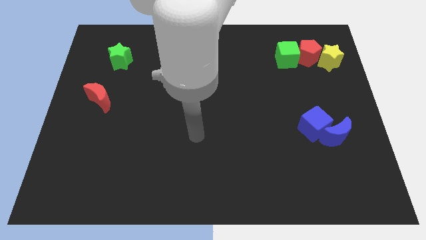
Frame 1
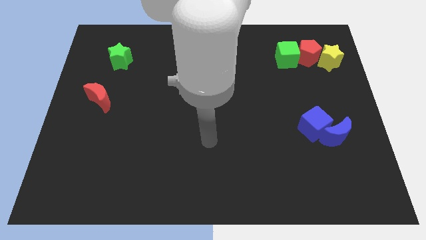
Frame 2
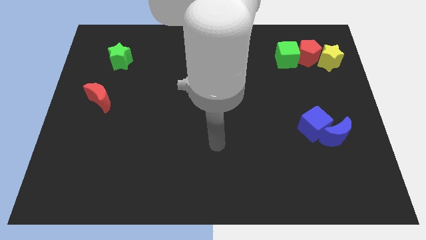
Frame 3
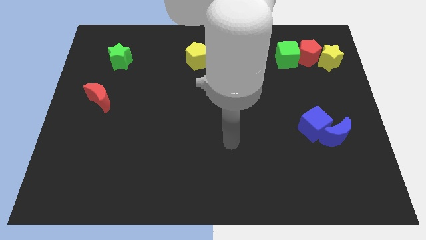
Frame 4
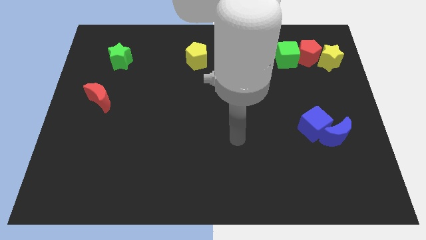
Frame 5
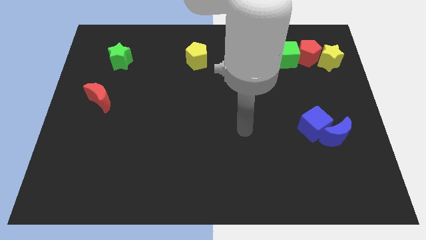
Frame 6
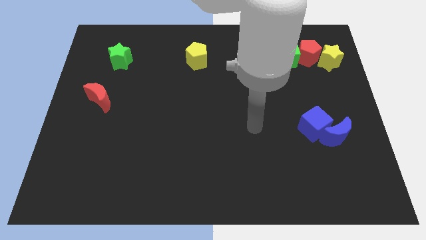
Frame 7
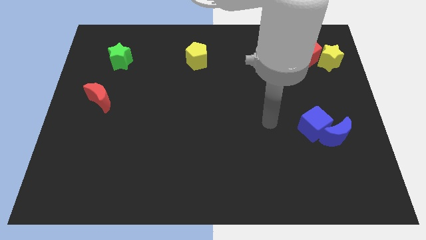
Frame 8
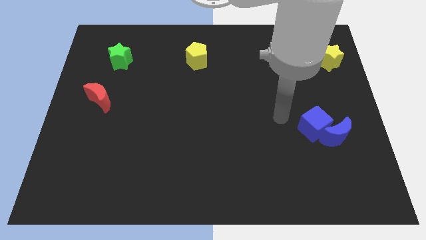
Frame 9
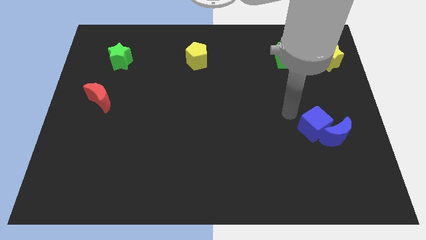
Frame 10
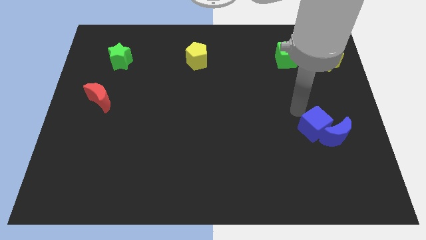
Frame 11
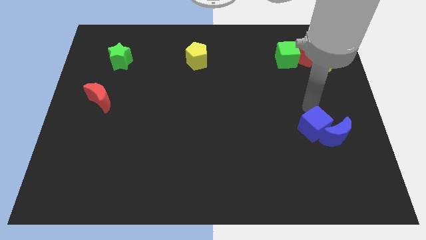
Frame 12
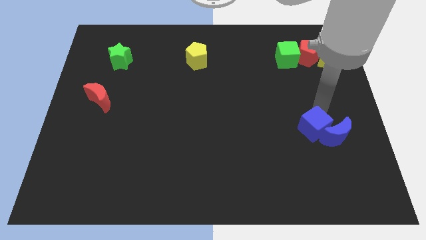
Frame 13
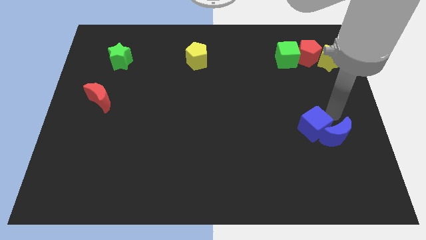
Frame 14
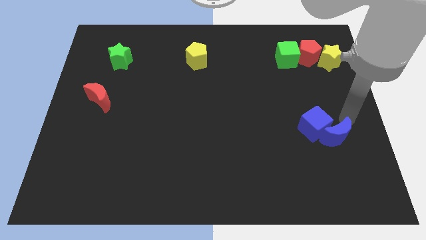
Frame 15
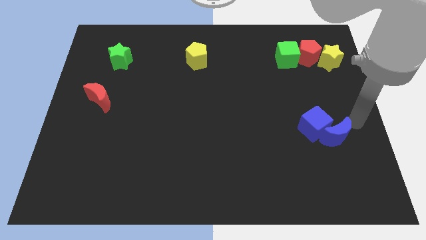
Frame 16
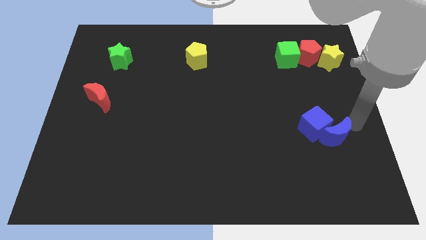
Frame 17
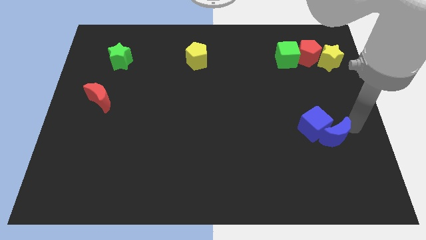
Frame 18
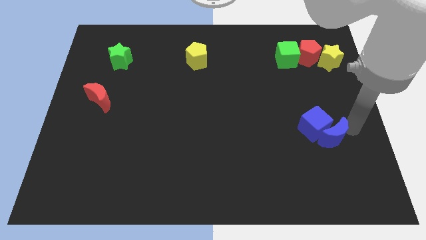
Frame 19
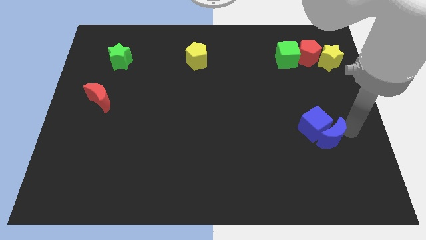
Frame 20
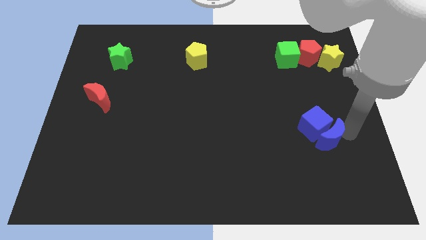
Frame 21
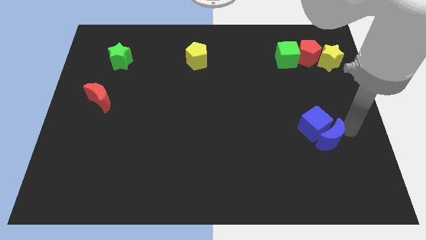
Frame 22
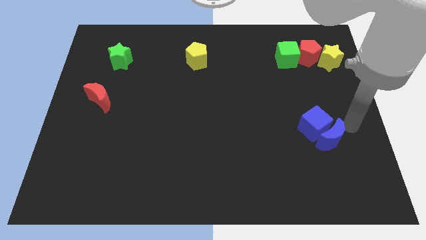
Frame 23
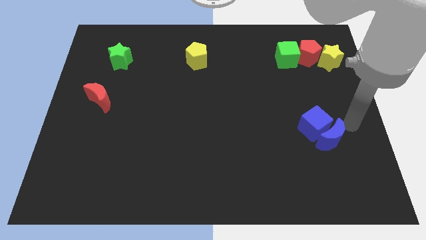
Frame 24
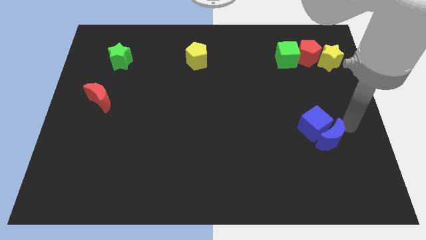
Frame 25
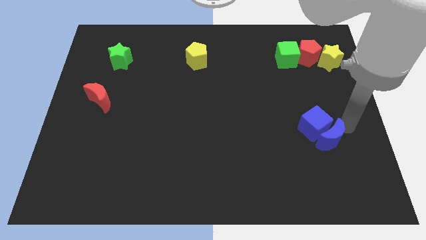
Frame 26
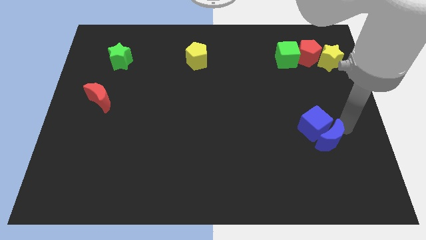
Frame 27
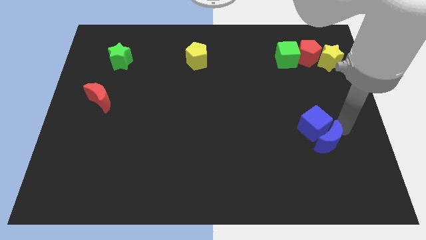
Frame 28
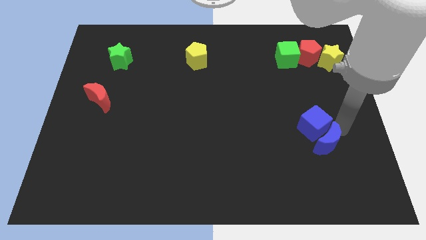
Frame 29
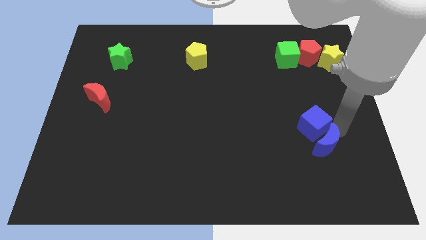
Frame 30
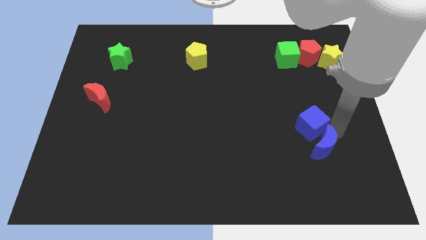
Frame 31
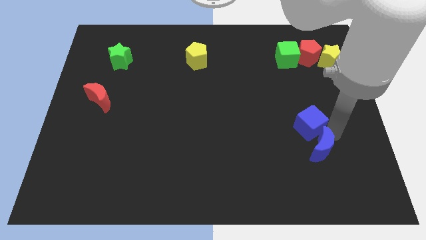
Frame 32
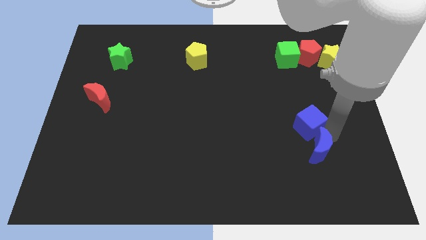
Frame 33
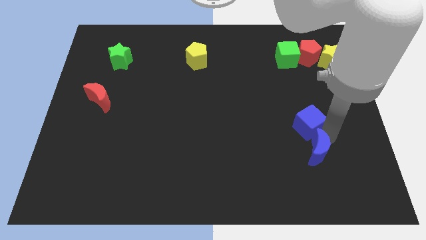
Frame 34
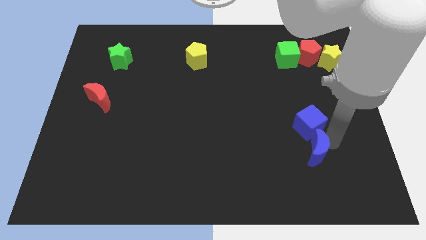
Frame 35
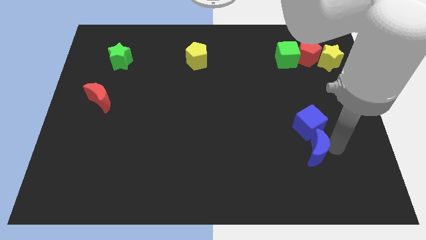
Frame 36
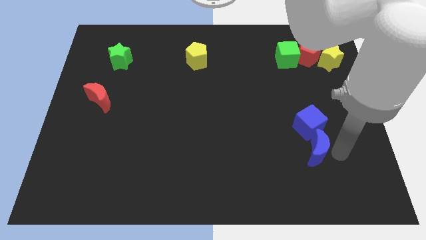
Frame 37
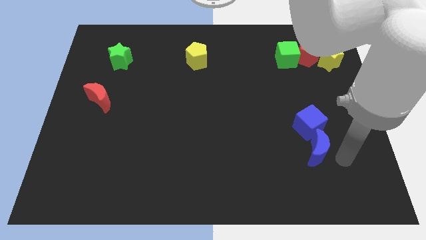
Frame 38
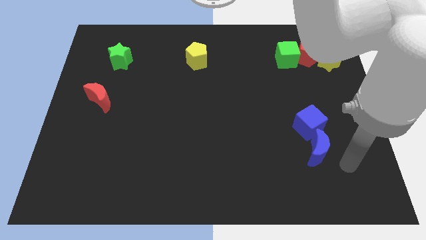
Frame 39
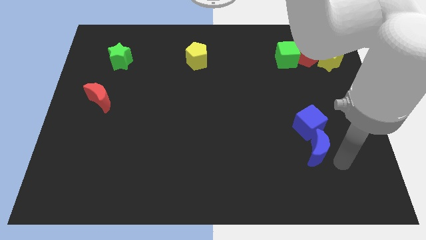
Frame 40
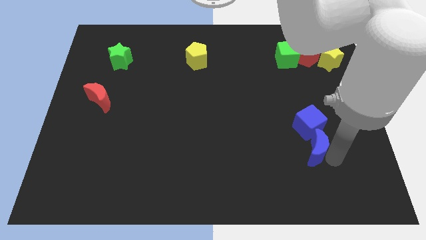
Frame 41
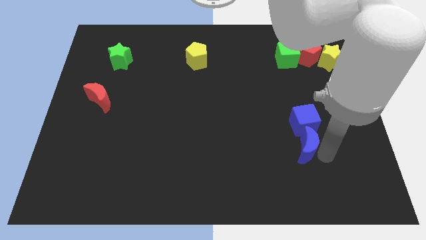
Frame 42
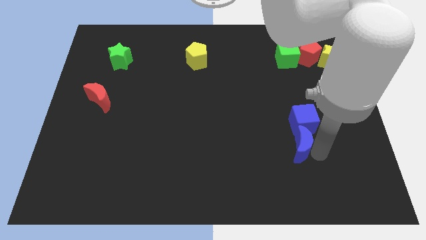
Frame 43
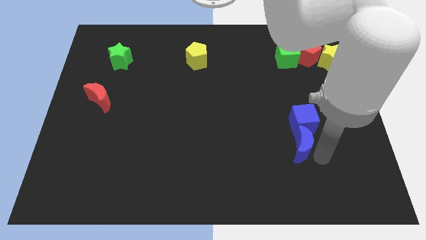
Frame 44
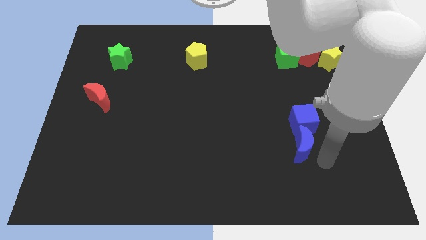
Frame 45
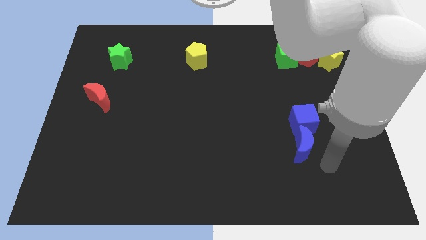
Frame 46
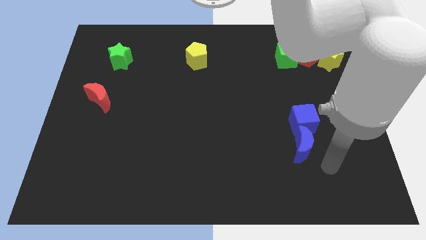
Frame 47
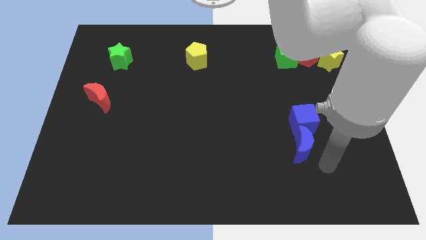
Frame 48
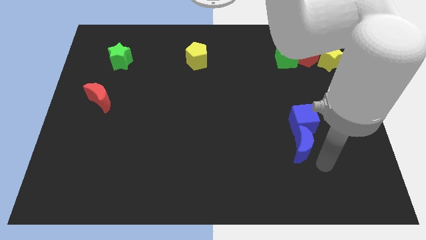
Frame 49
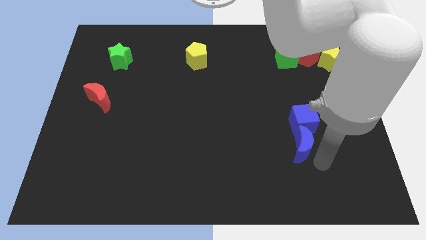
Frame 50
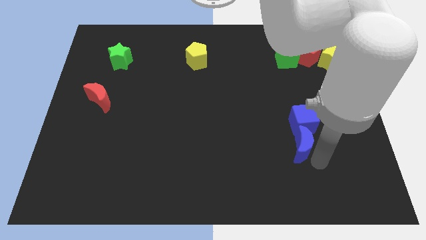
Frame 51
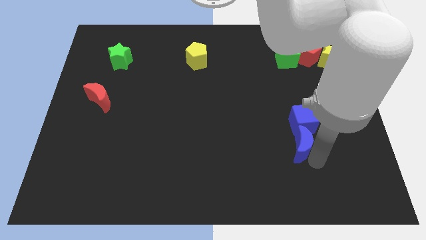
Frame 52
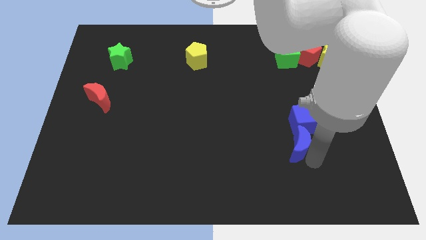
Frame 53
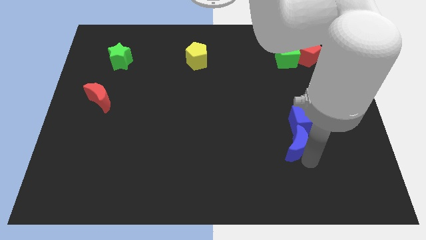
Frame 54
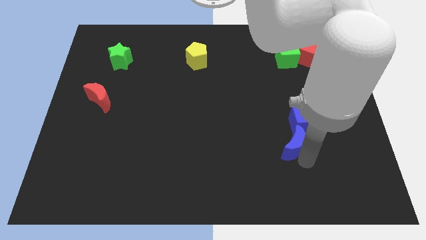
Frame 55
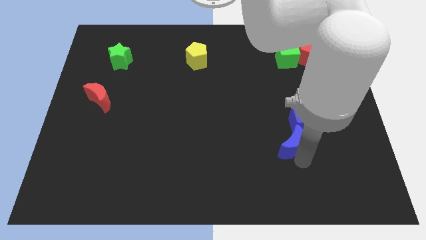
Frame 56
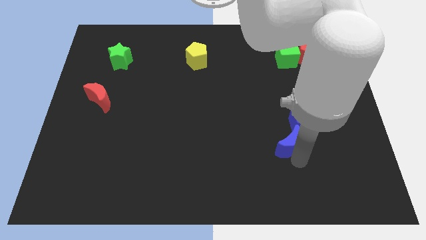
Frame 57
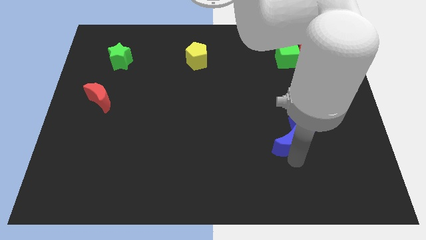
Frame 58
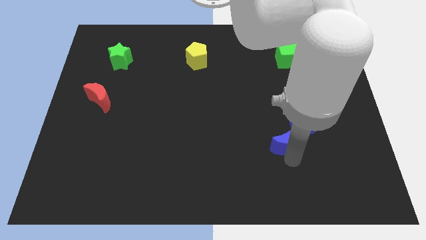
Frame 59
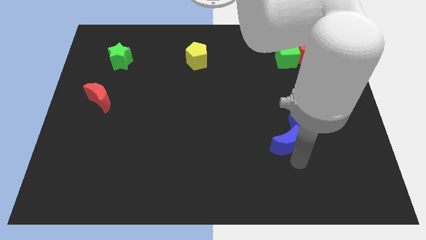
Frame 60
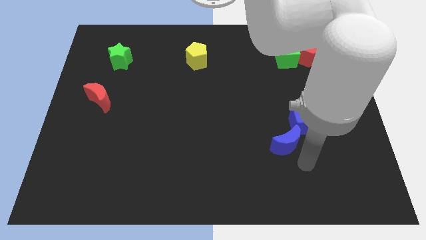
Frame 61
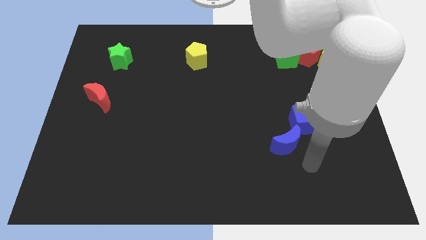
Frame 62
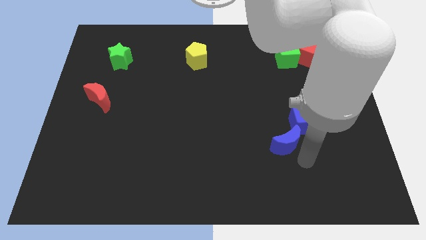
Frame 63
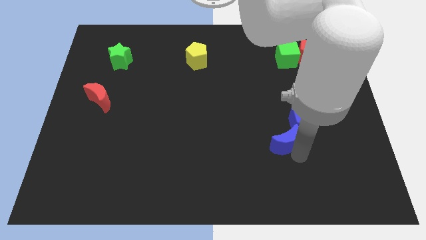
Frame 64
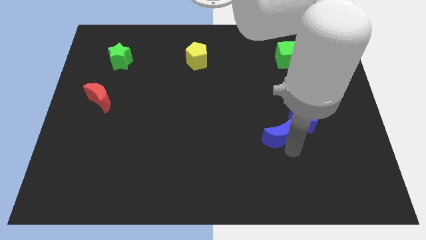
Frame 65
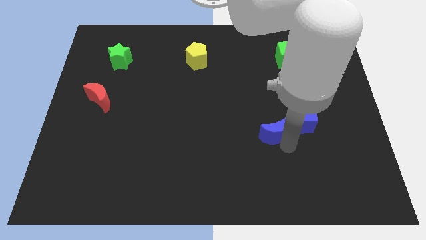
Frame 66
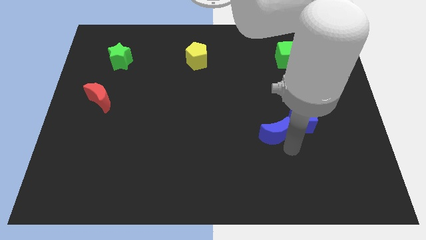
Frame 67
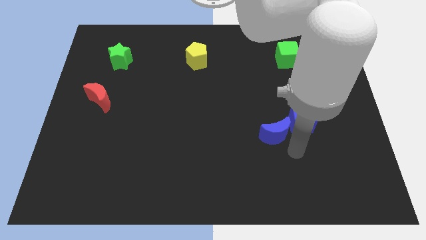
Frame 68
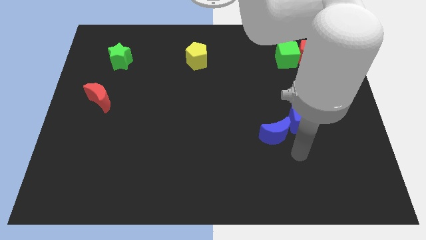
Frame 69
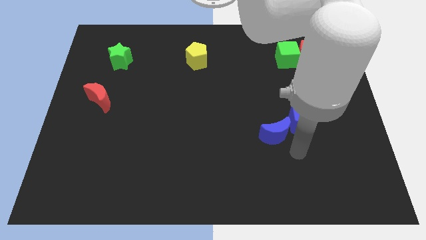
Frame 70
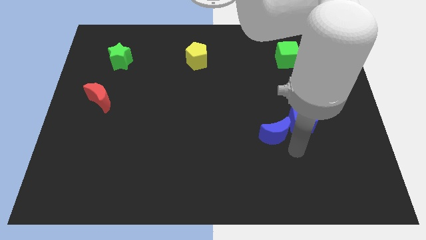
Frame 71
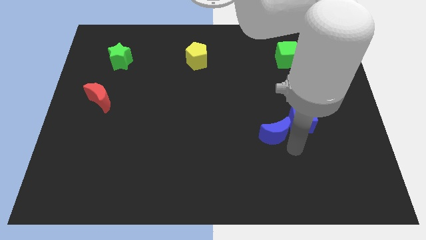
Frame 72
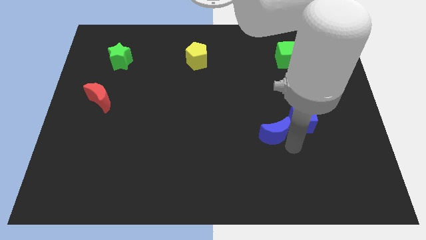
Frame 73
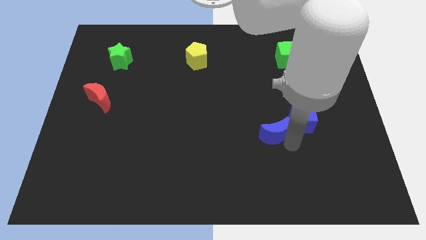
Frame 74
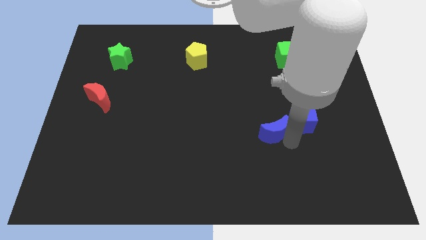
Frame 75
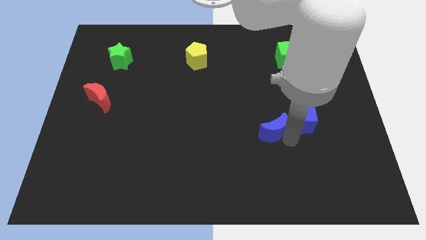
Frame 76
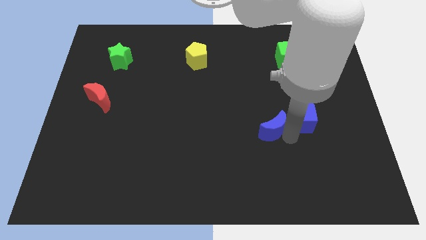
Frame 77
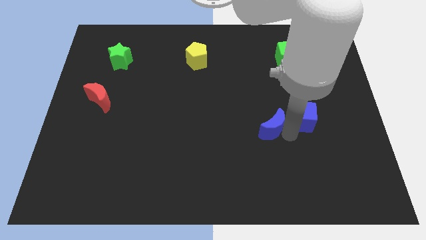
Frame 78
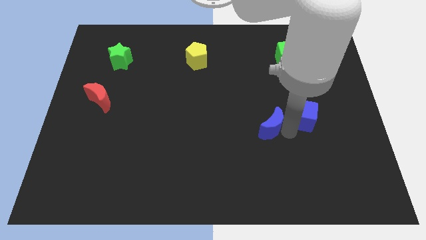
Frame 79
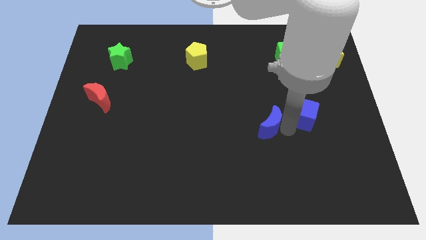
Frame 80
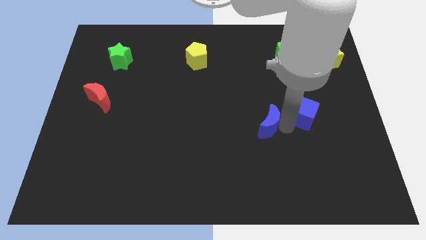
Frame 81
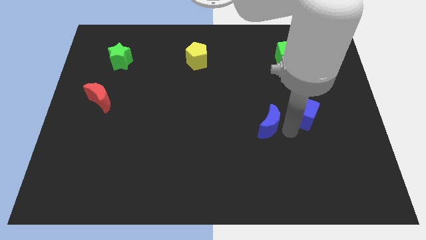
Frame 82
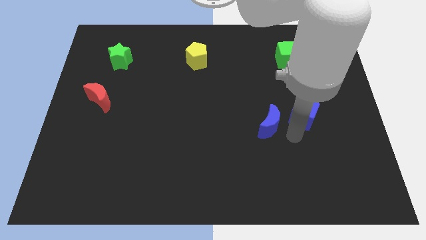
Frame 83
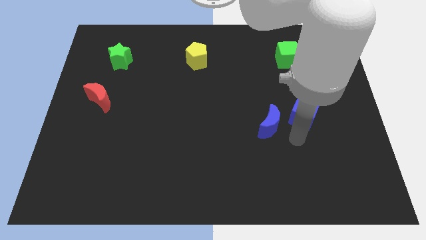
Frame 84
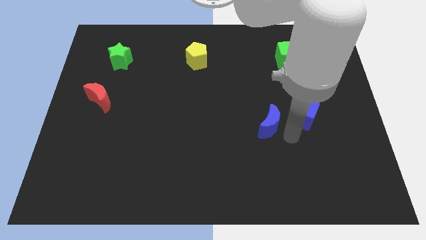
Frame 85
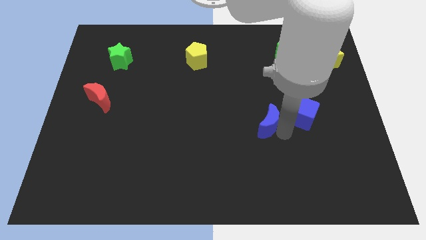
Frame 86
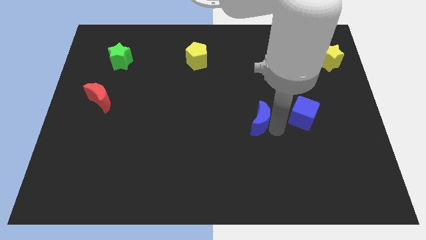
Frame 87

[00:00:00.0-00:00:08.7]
put the blue moon to the center of the board
